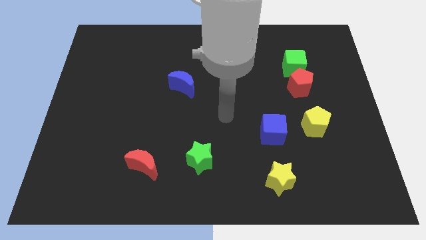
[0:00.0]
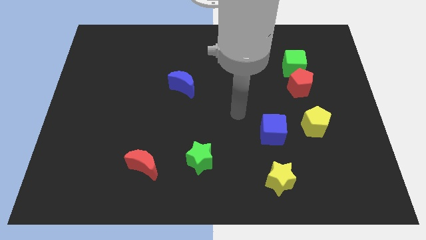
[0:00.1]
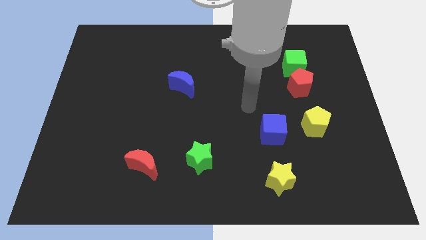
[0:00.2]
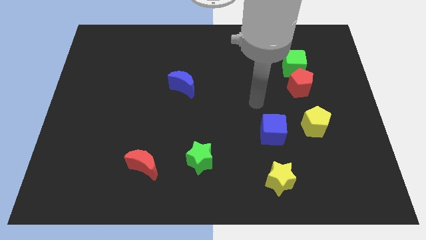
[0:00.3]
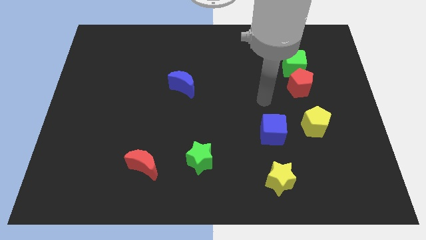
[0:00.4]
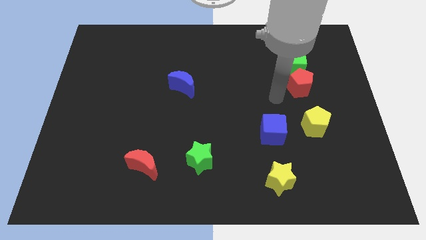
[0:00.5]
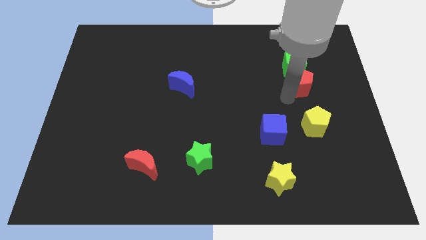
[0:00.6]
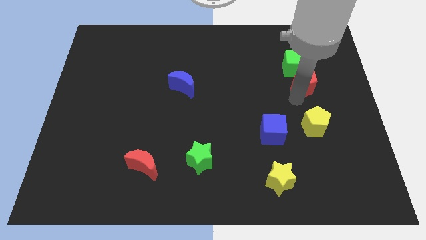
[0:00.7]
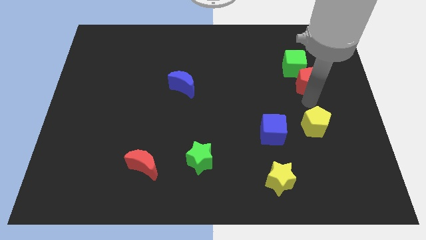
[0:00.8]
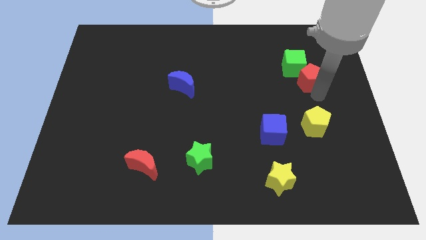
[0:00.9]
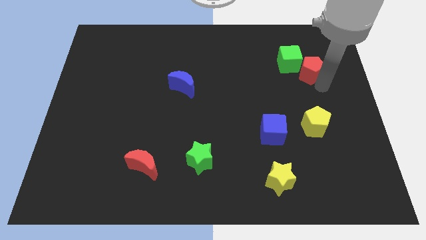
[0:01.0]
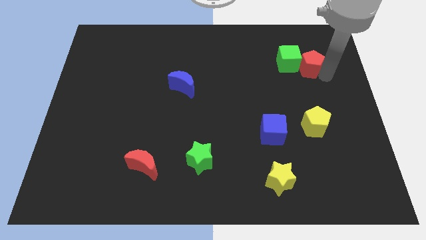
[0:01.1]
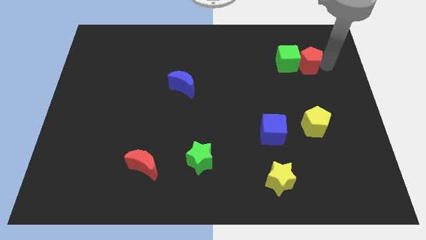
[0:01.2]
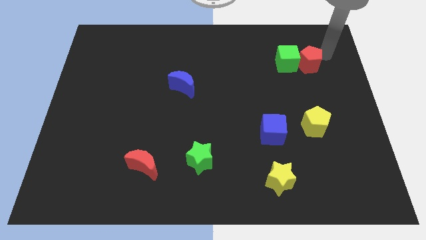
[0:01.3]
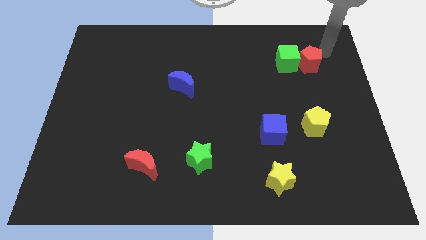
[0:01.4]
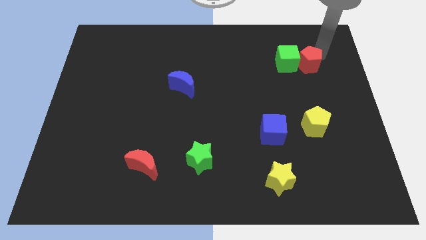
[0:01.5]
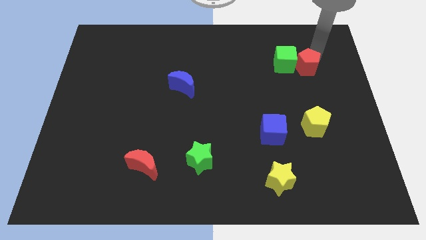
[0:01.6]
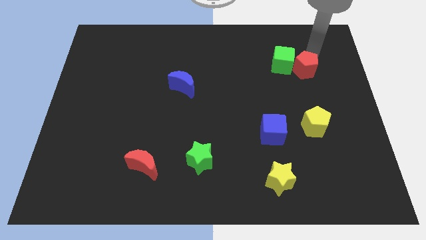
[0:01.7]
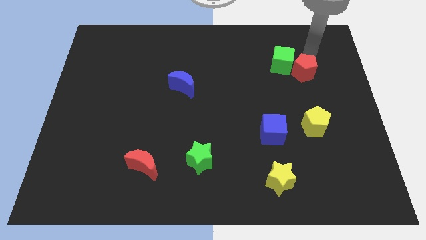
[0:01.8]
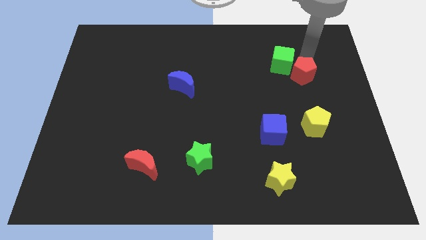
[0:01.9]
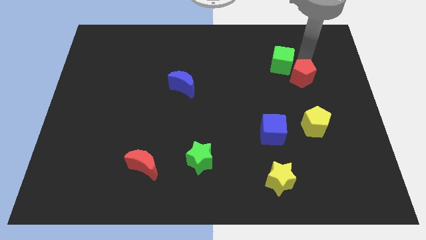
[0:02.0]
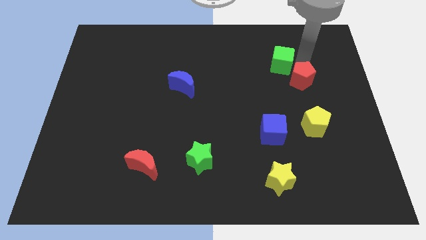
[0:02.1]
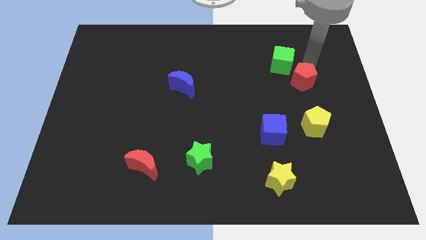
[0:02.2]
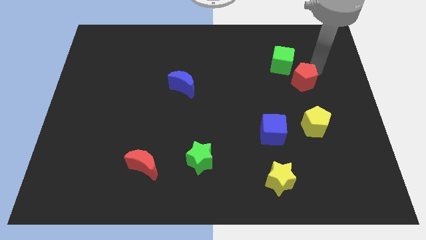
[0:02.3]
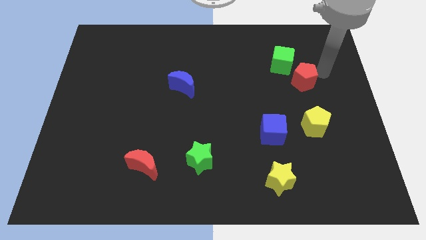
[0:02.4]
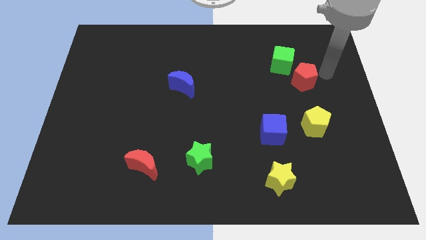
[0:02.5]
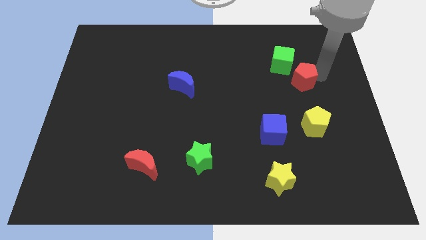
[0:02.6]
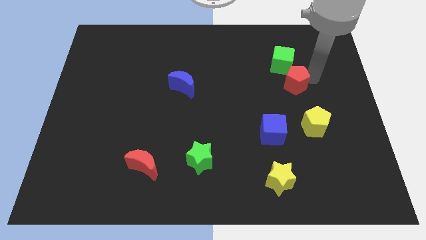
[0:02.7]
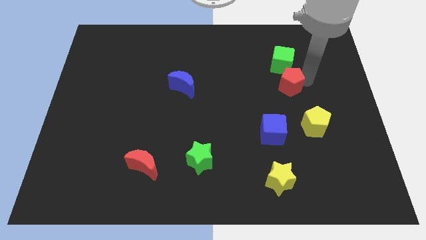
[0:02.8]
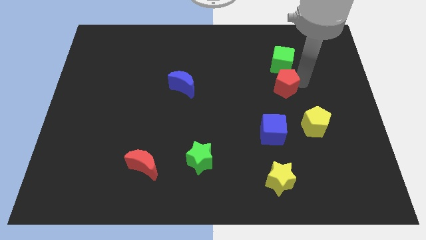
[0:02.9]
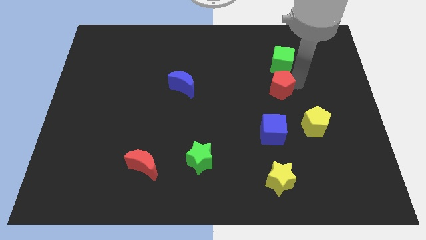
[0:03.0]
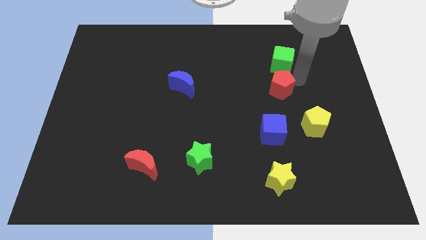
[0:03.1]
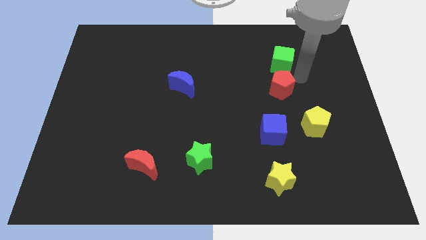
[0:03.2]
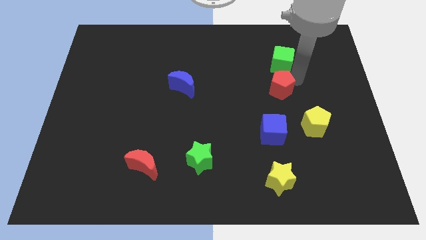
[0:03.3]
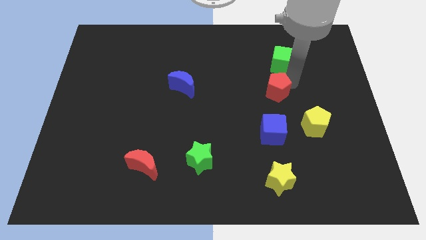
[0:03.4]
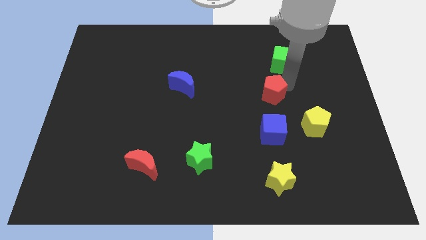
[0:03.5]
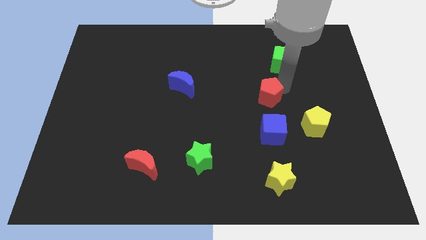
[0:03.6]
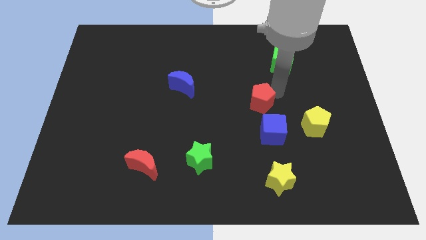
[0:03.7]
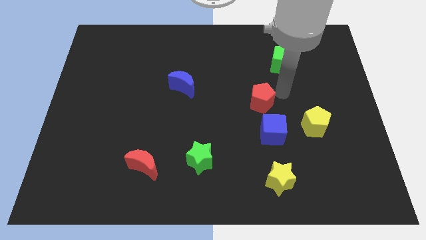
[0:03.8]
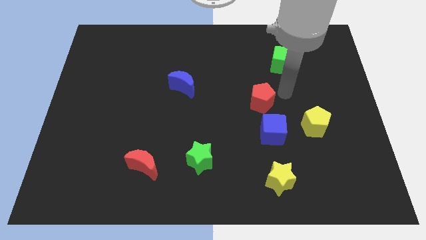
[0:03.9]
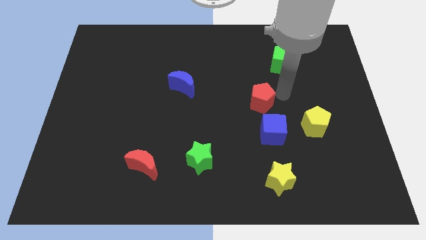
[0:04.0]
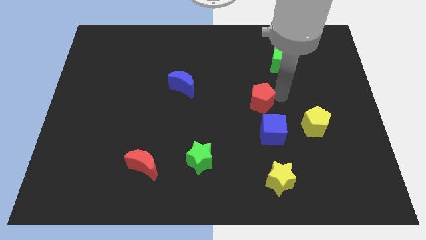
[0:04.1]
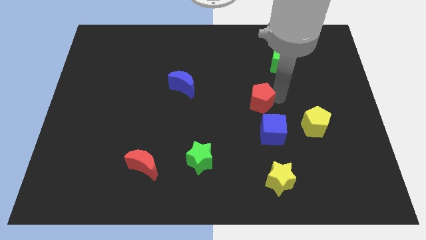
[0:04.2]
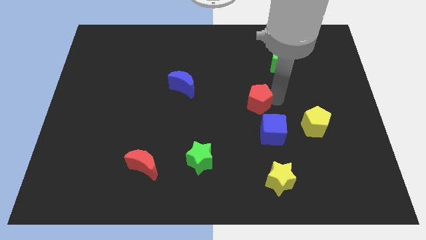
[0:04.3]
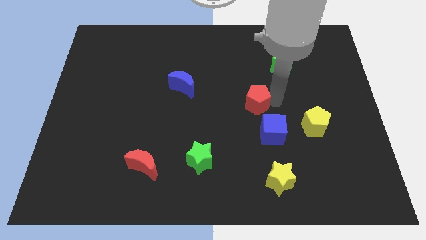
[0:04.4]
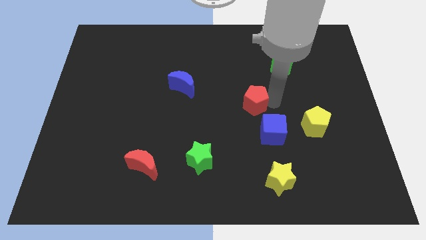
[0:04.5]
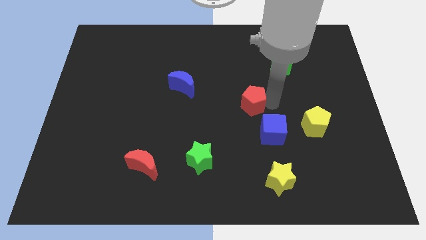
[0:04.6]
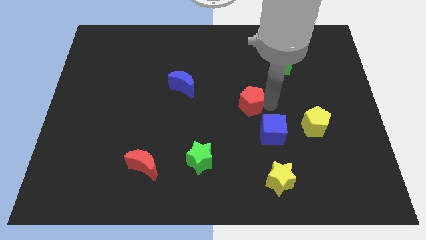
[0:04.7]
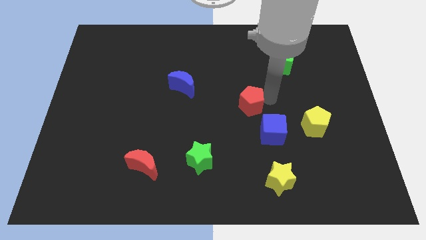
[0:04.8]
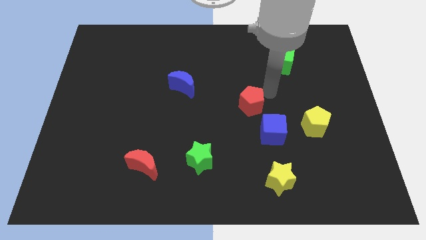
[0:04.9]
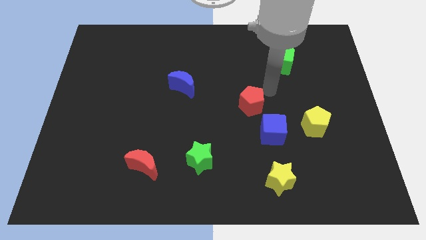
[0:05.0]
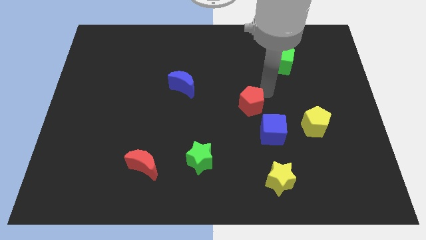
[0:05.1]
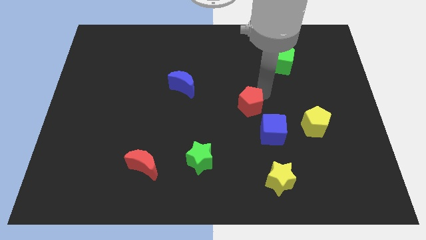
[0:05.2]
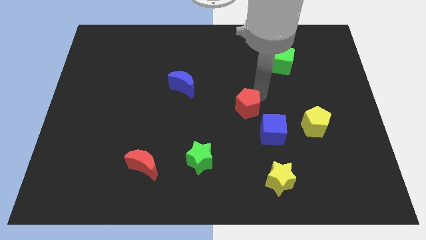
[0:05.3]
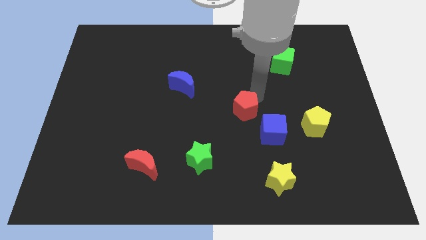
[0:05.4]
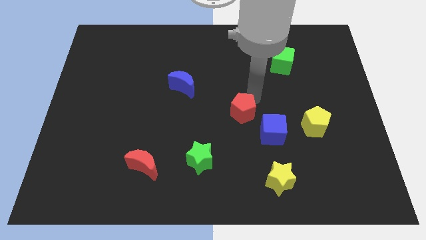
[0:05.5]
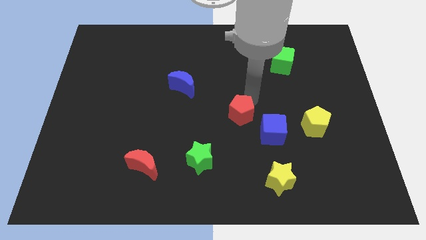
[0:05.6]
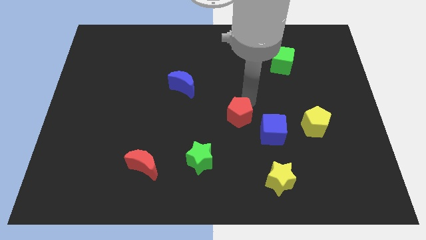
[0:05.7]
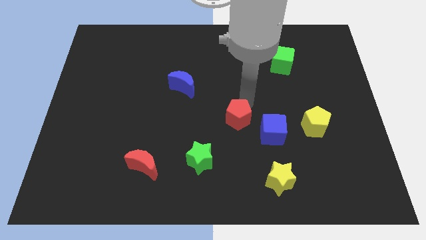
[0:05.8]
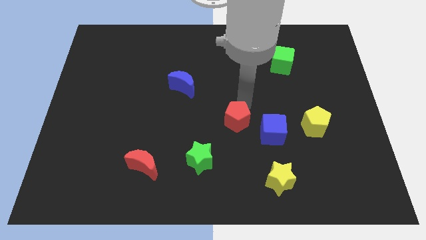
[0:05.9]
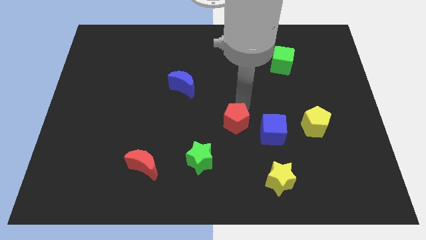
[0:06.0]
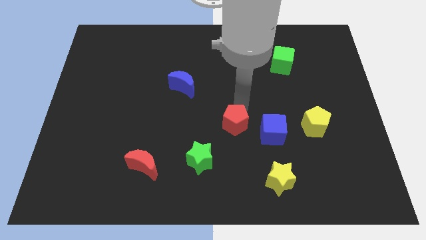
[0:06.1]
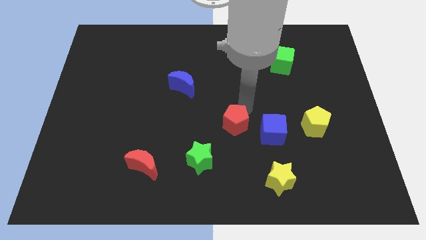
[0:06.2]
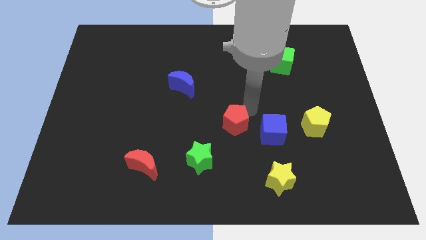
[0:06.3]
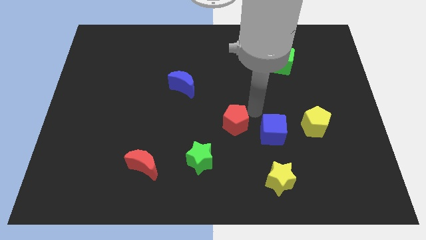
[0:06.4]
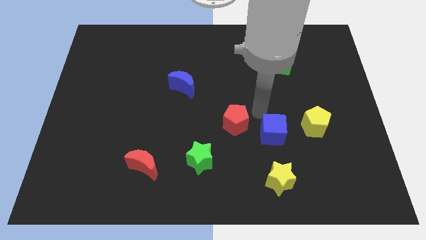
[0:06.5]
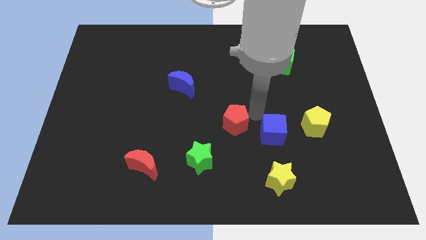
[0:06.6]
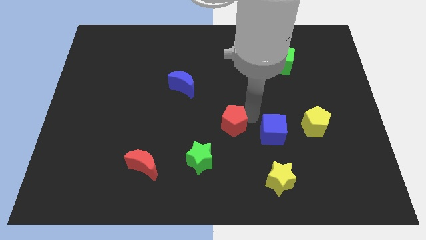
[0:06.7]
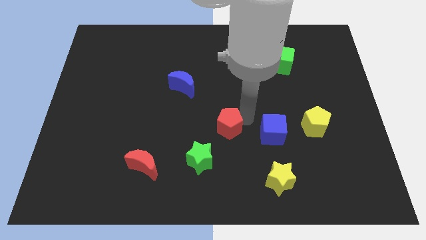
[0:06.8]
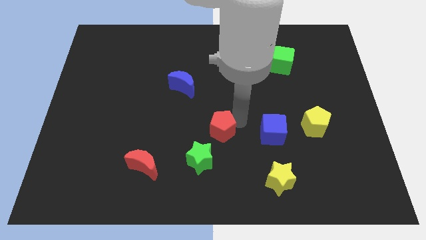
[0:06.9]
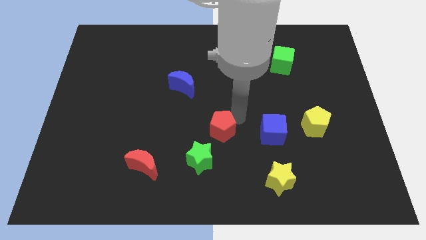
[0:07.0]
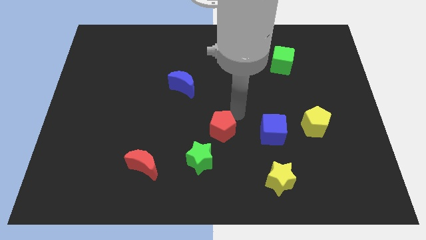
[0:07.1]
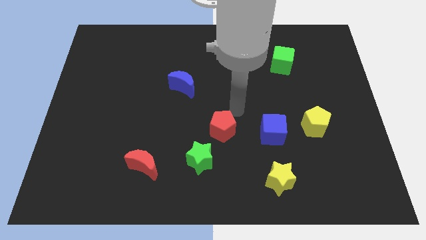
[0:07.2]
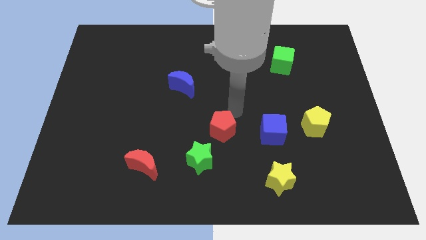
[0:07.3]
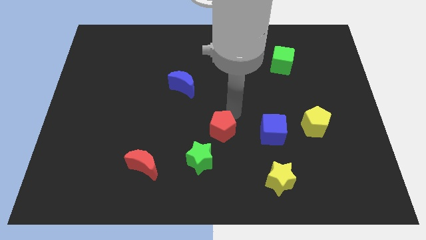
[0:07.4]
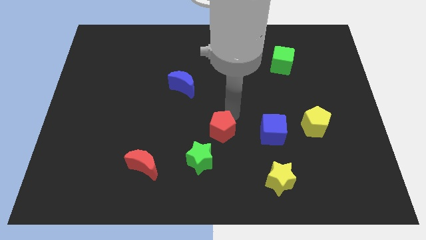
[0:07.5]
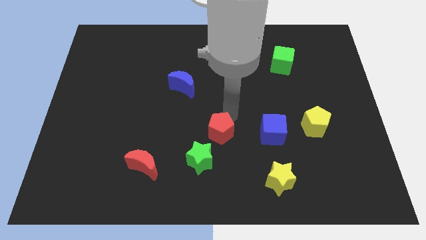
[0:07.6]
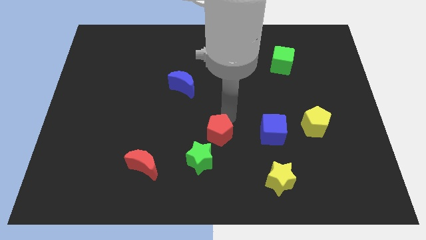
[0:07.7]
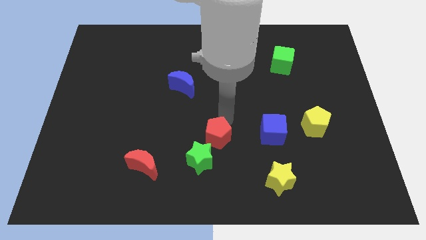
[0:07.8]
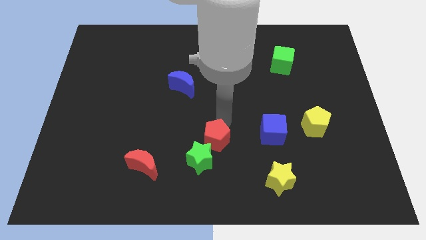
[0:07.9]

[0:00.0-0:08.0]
slide the red pentagon to the green star
